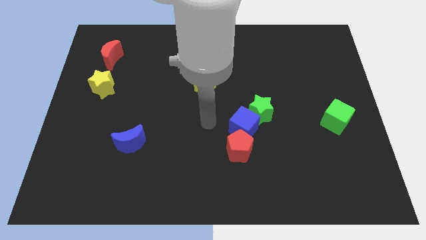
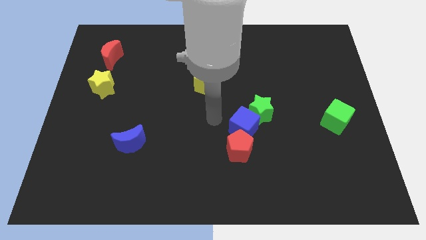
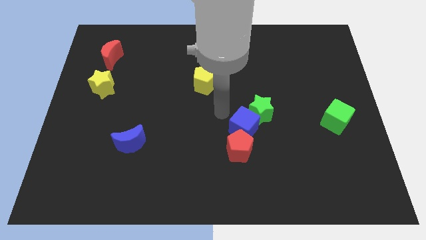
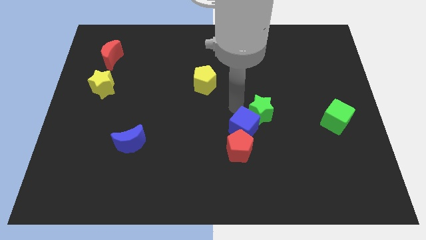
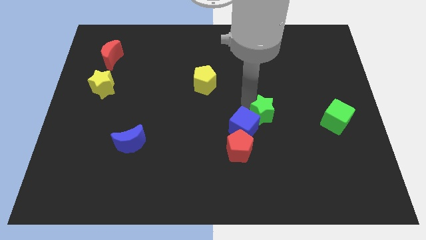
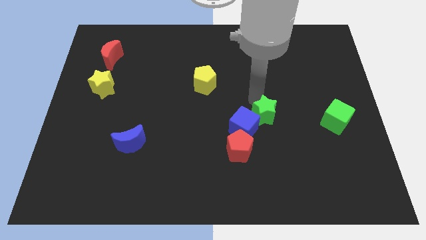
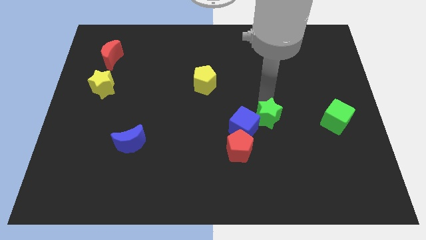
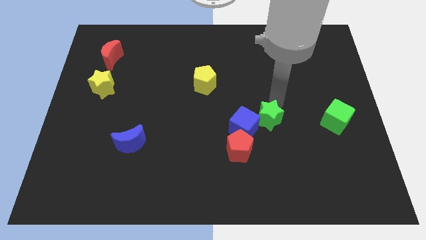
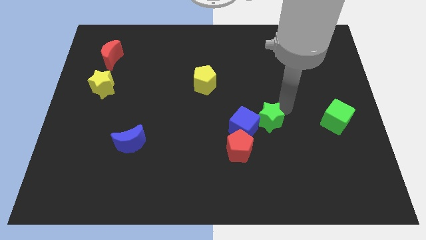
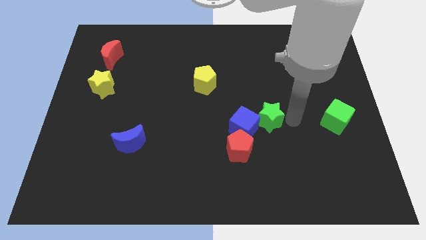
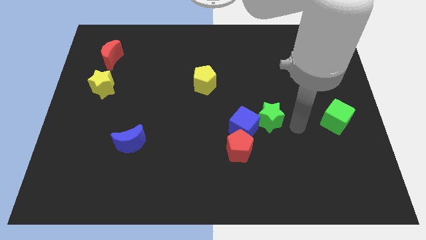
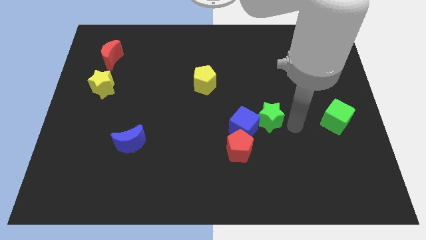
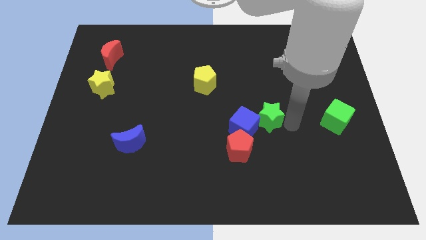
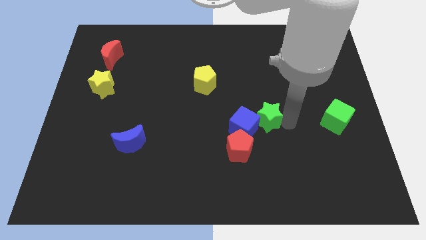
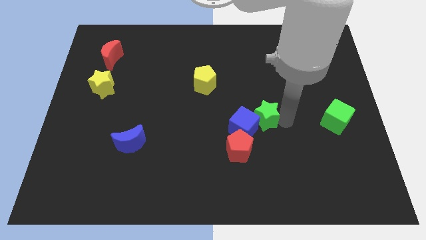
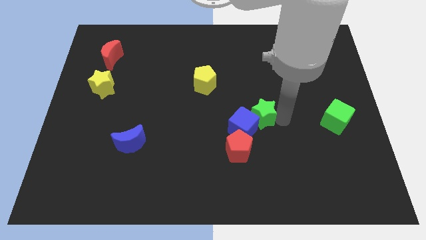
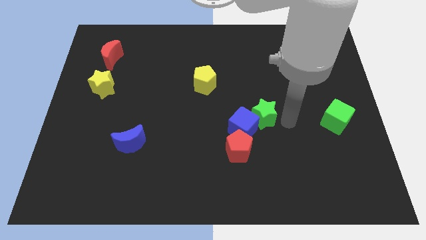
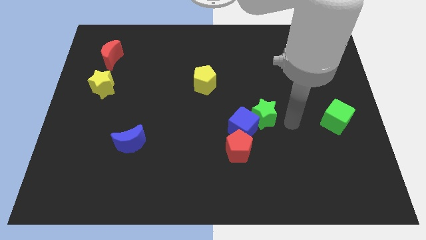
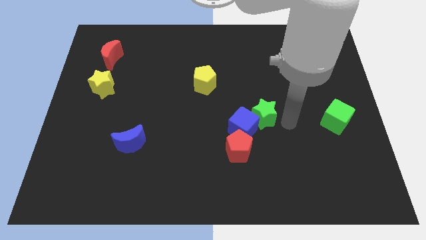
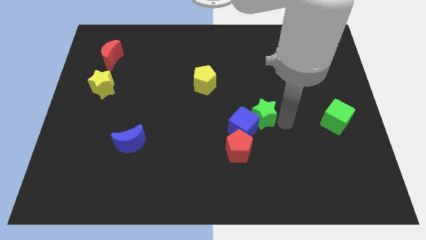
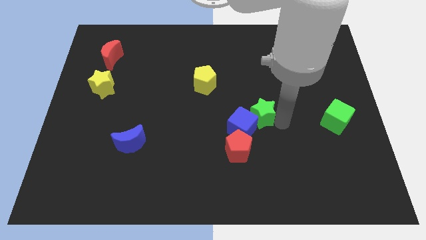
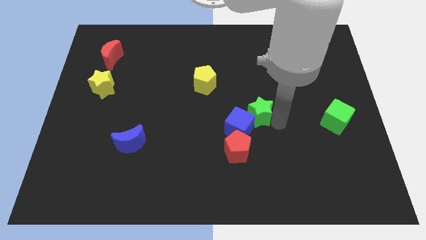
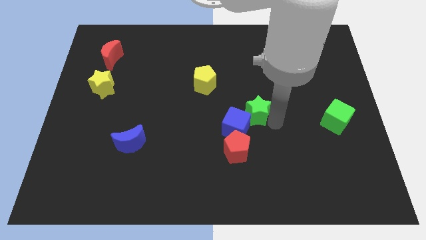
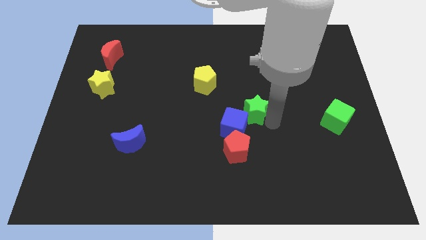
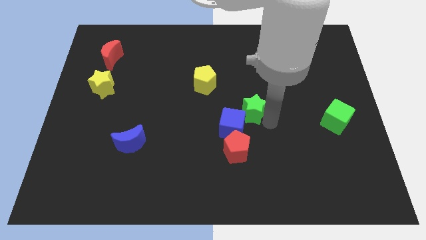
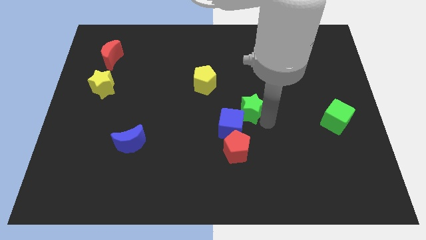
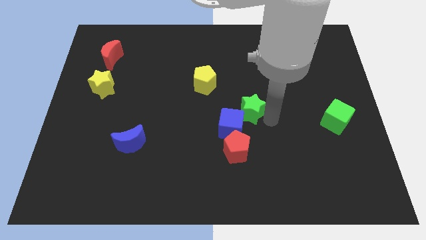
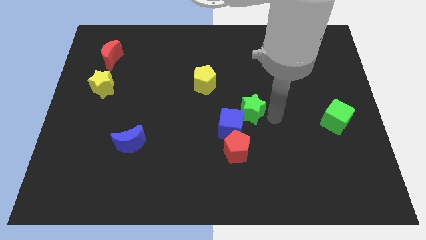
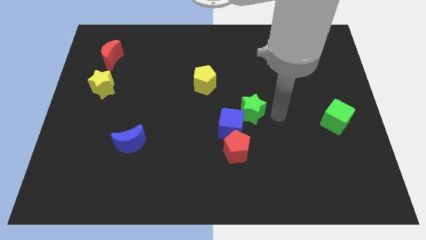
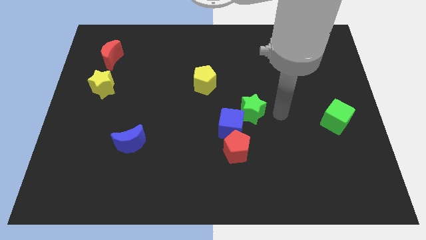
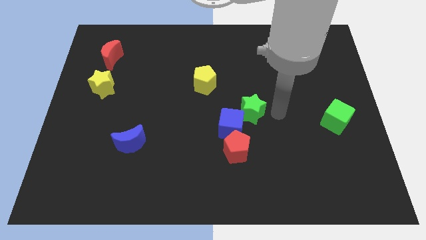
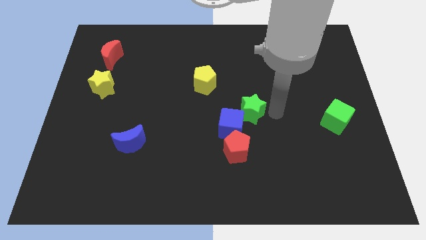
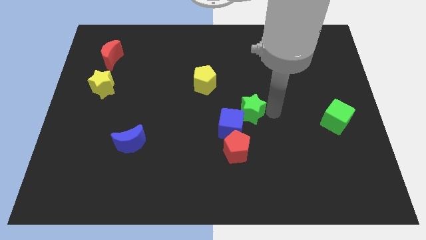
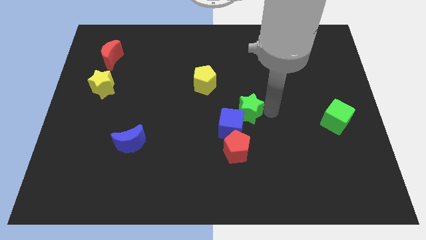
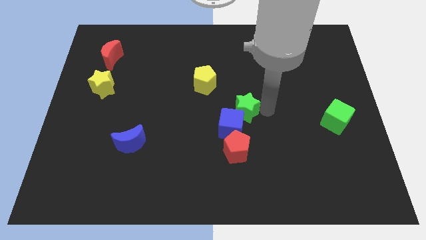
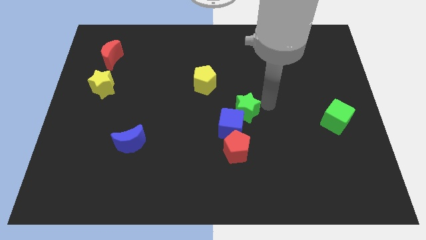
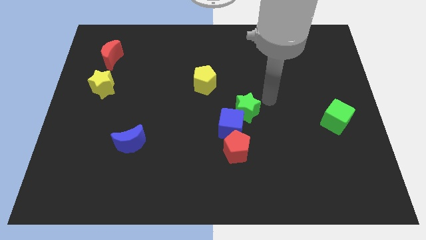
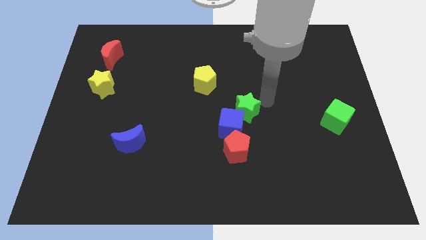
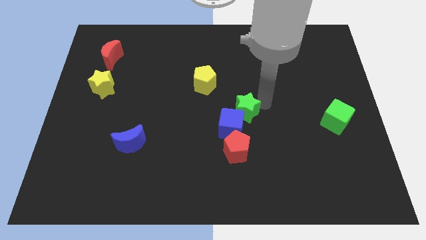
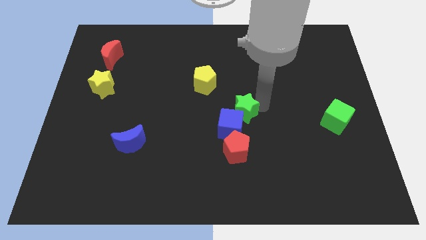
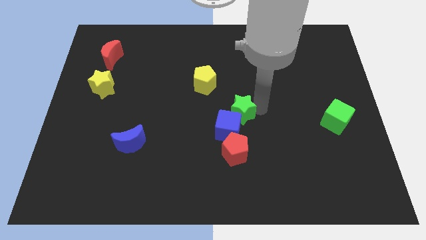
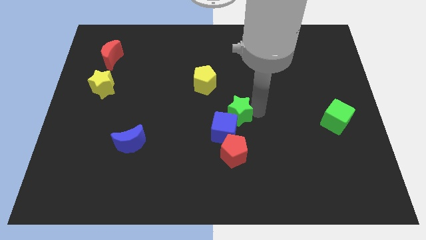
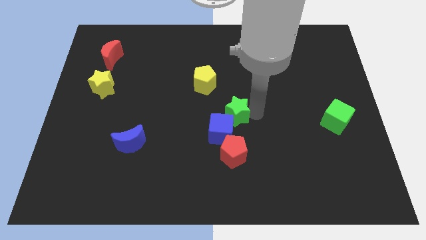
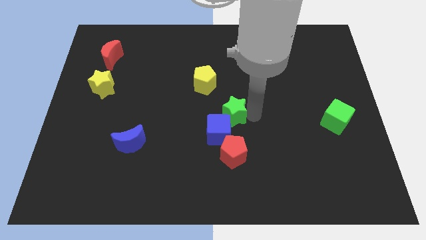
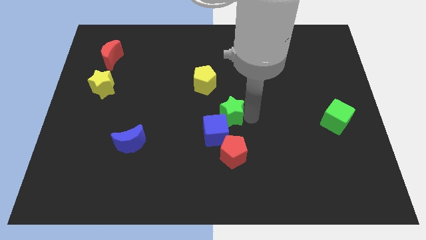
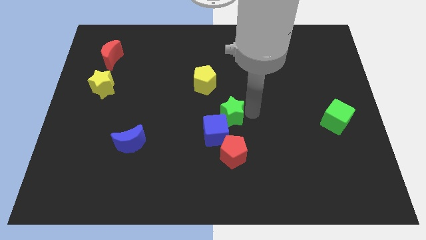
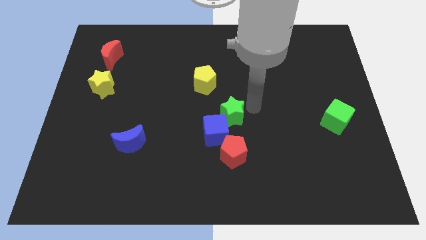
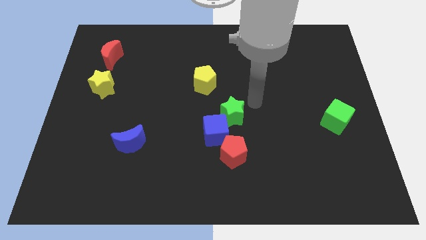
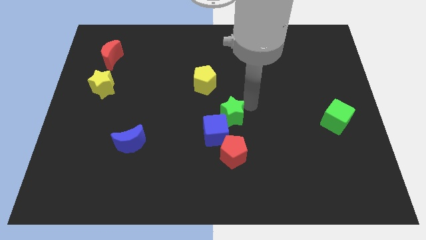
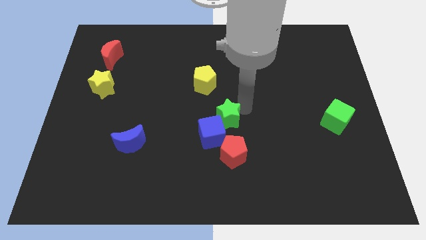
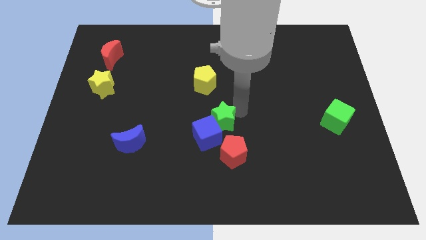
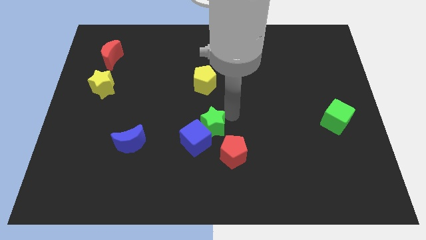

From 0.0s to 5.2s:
push the green star diagonally downwards and to the left slightly

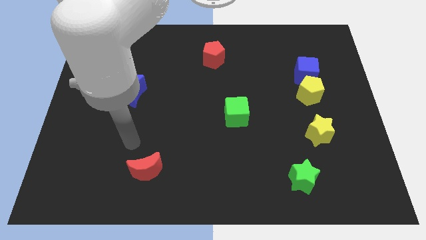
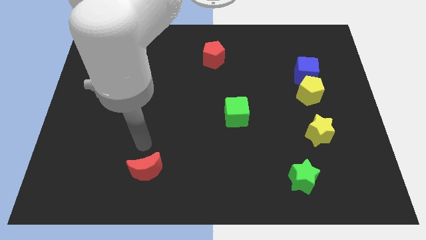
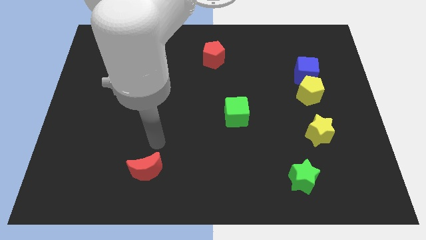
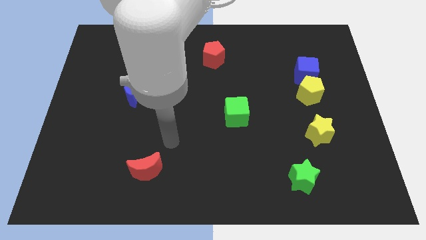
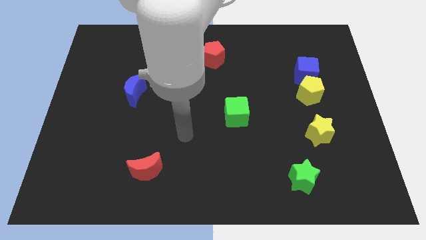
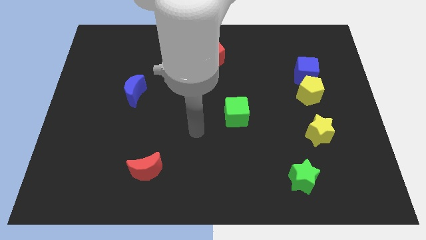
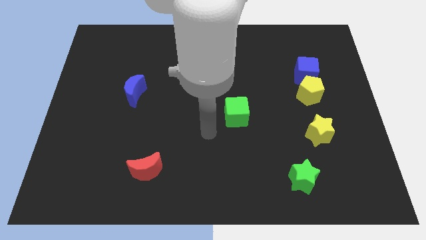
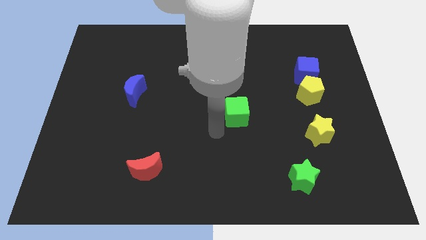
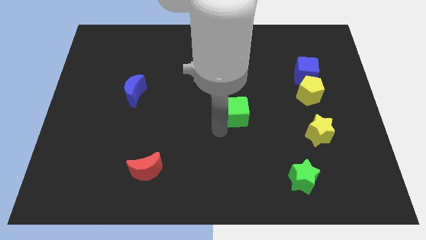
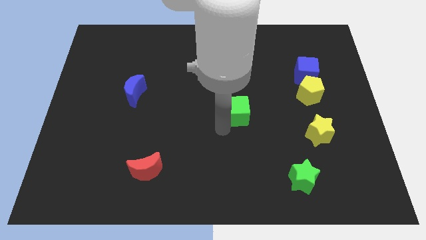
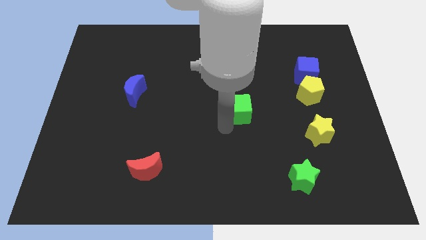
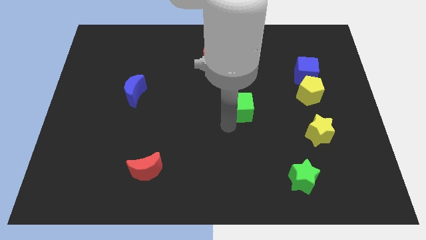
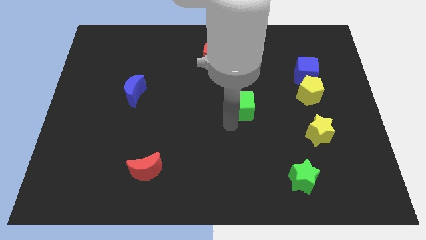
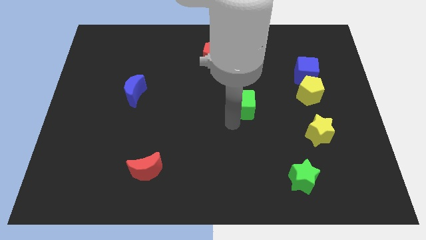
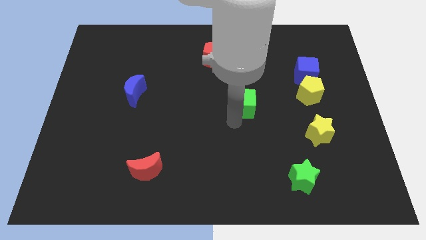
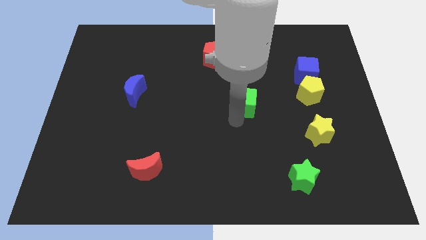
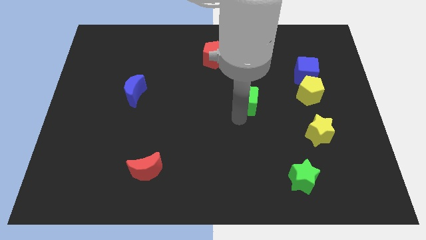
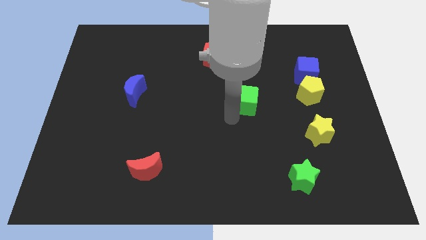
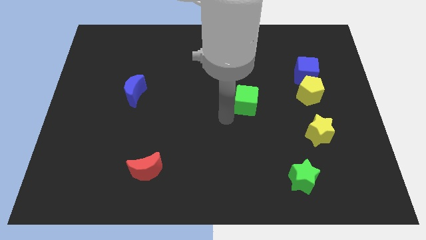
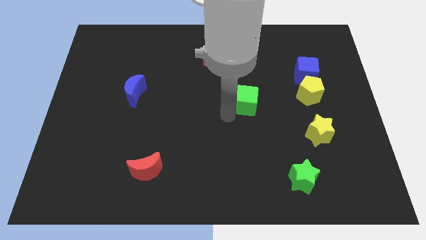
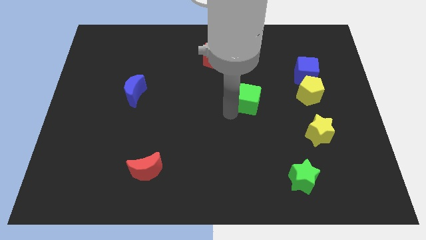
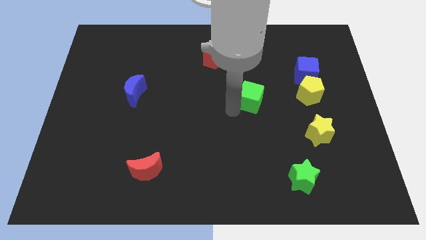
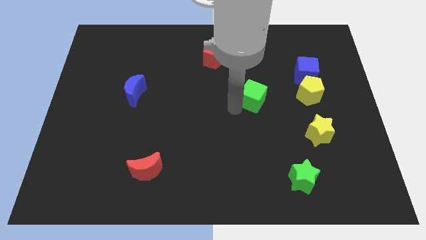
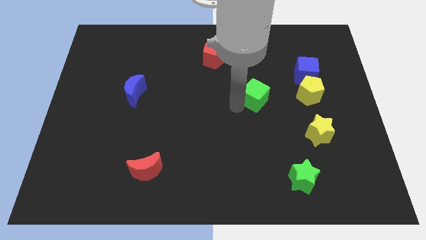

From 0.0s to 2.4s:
slightly move the green cube diagonally up and right

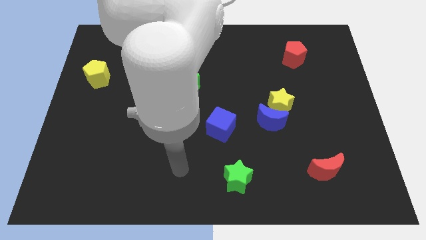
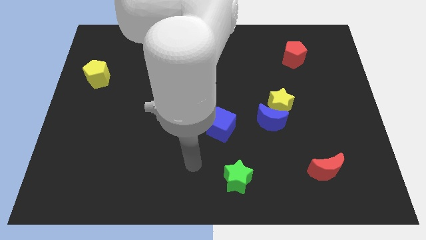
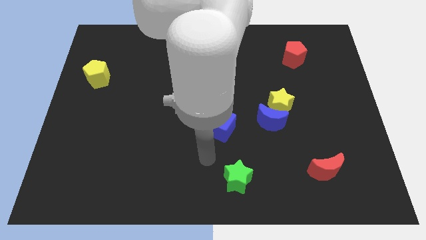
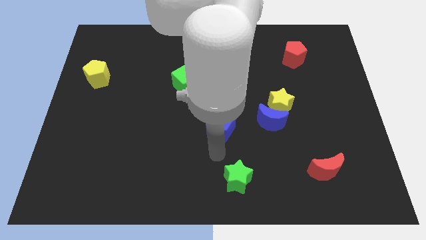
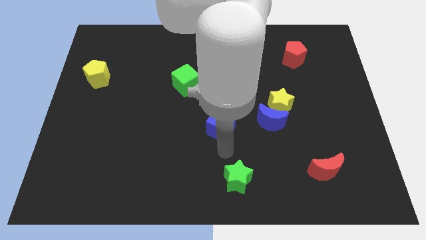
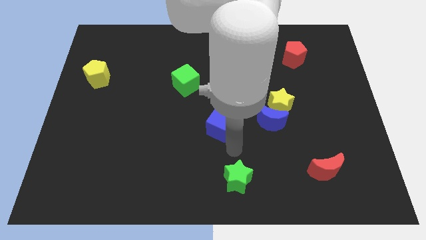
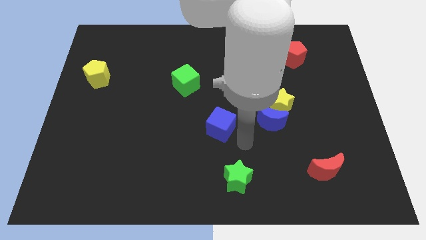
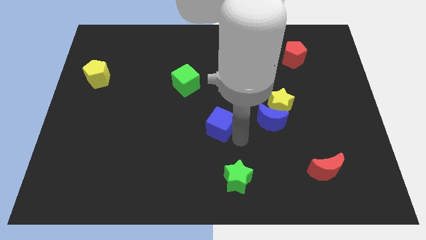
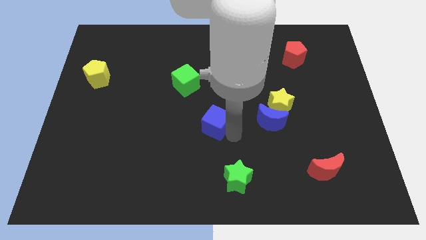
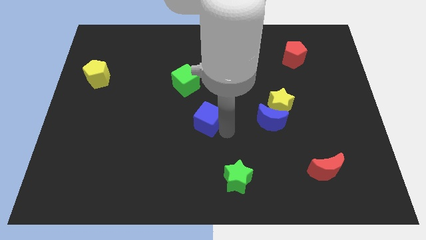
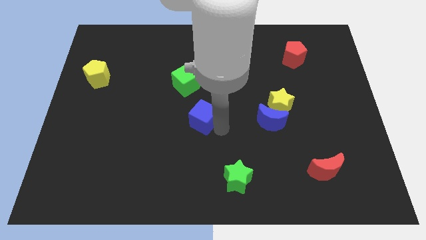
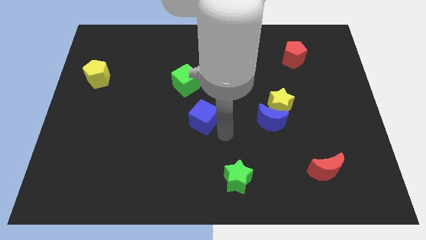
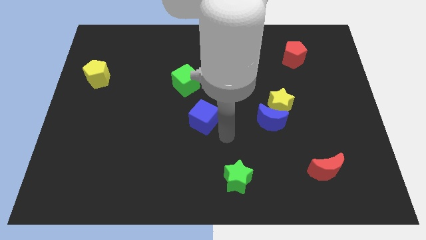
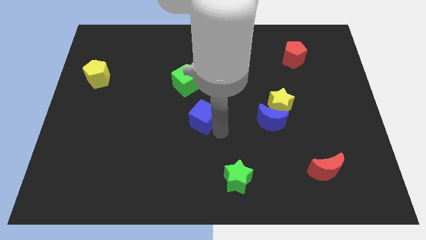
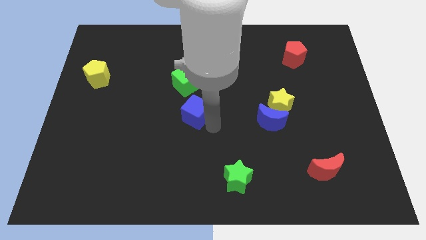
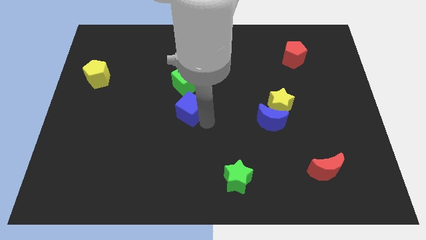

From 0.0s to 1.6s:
slide the blue cube up and then left slightly
